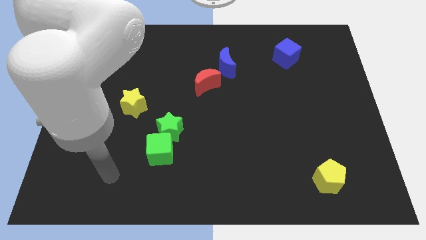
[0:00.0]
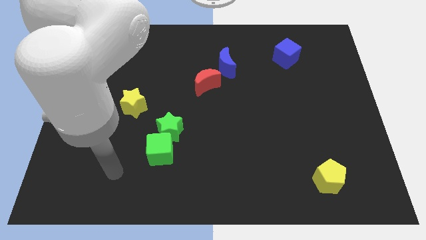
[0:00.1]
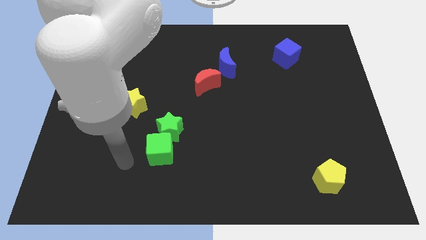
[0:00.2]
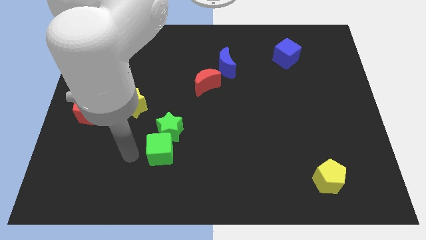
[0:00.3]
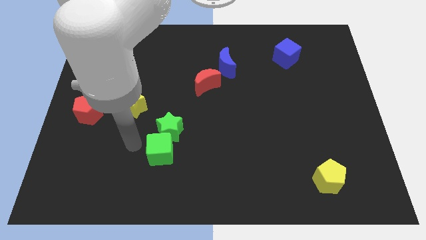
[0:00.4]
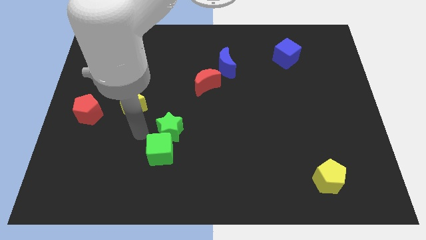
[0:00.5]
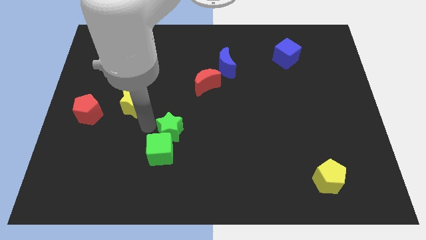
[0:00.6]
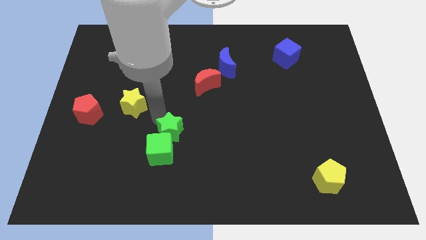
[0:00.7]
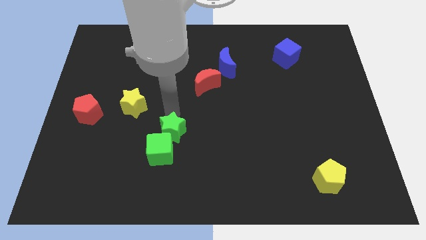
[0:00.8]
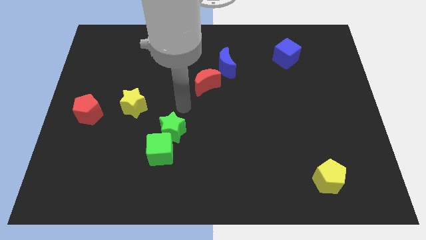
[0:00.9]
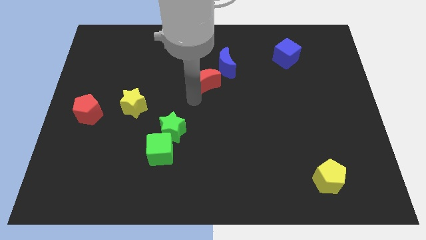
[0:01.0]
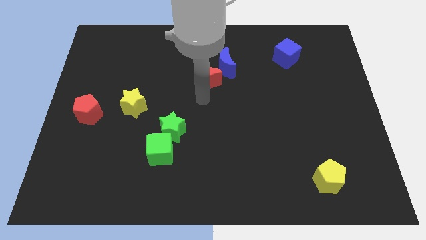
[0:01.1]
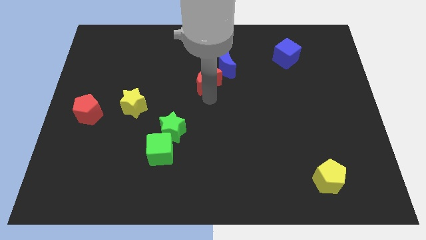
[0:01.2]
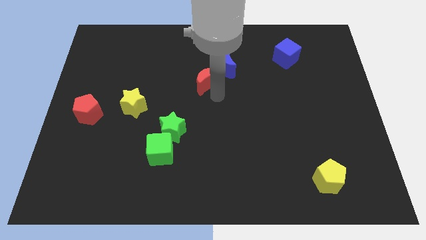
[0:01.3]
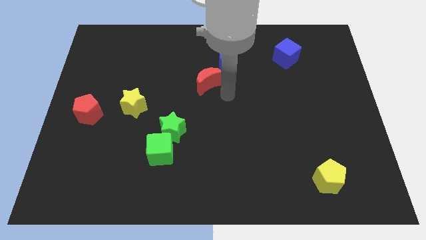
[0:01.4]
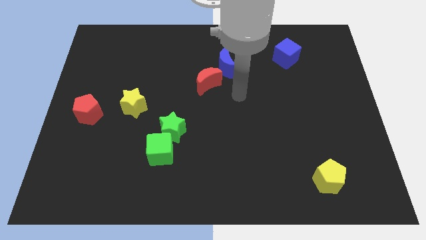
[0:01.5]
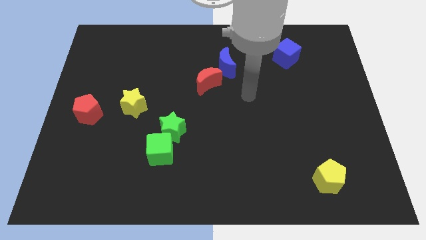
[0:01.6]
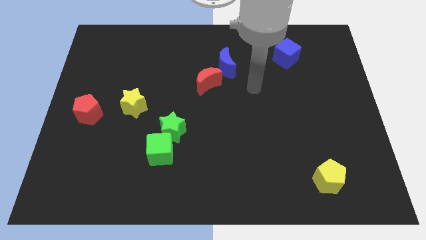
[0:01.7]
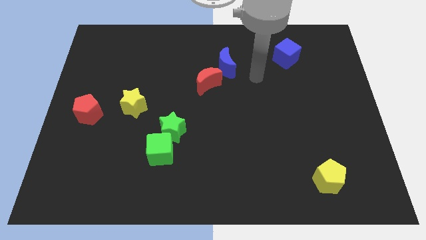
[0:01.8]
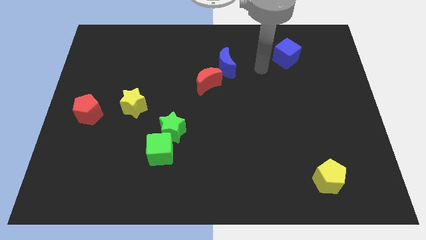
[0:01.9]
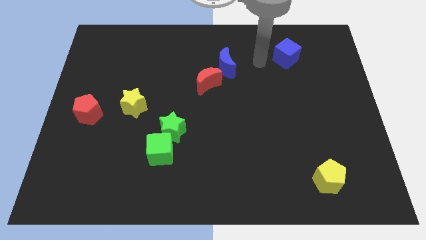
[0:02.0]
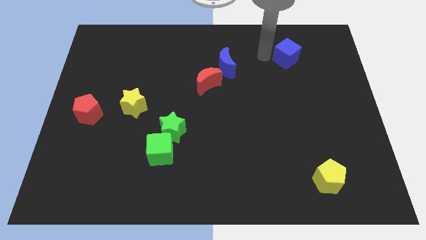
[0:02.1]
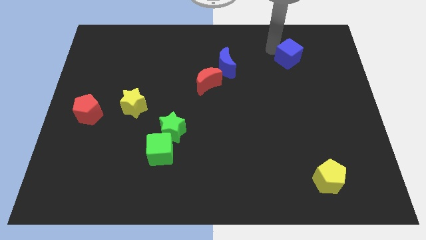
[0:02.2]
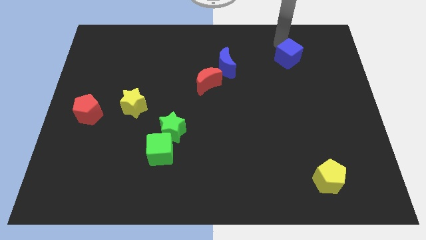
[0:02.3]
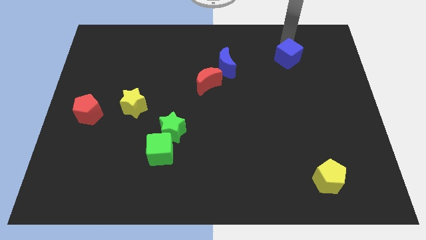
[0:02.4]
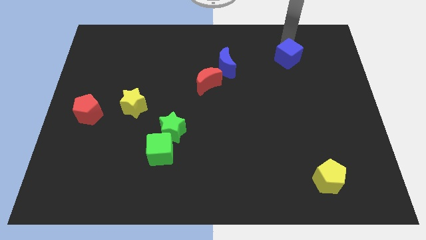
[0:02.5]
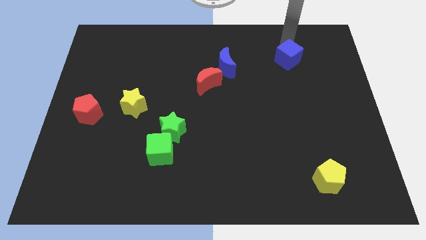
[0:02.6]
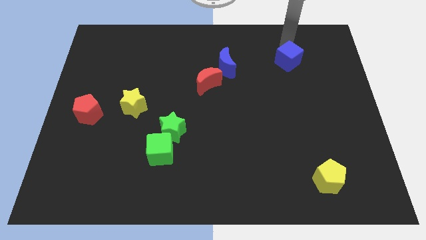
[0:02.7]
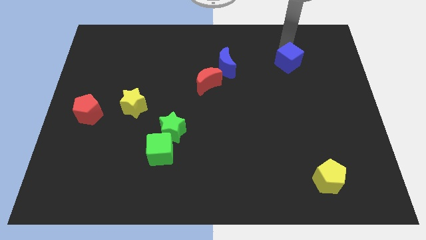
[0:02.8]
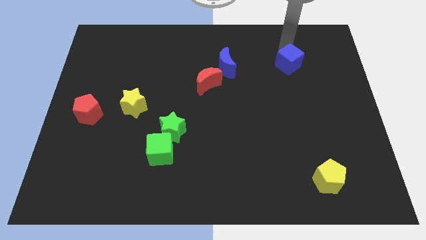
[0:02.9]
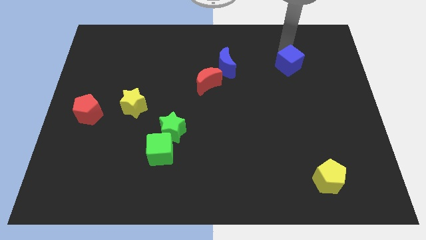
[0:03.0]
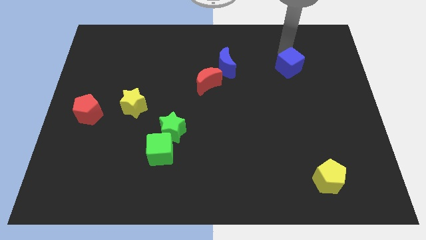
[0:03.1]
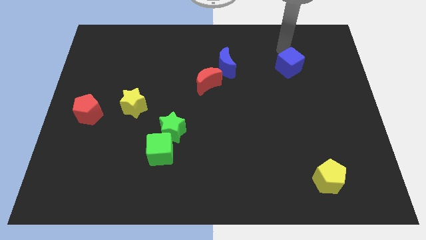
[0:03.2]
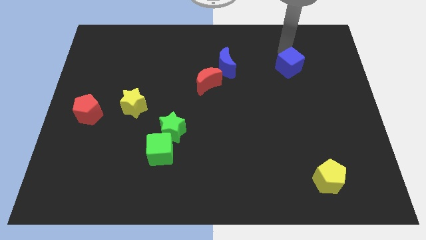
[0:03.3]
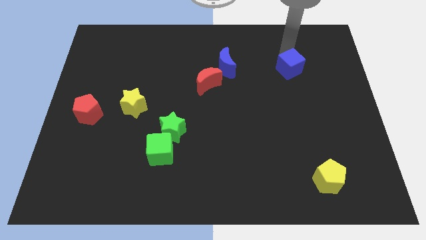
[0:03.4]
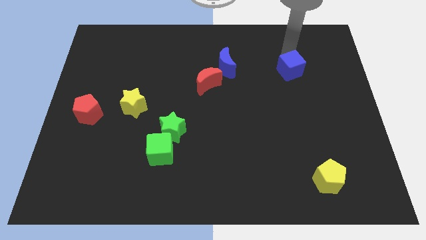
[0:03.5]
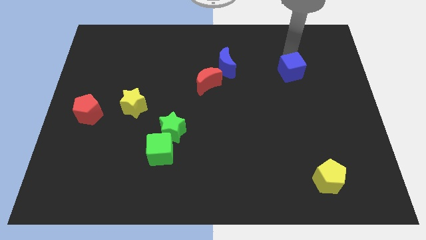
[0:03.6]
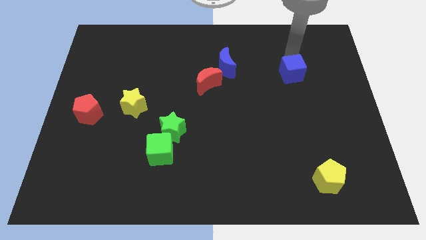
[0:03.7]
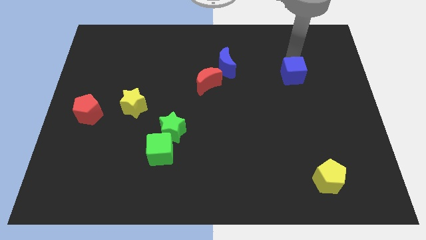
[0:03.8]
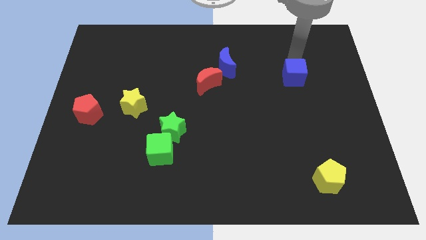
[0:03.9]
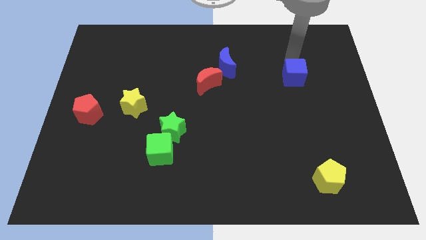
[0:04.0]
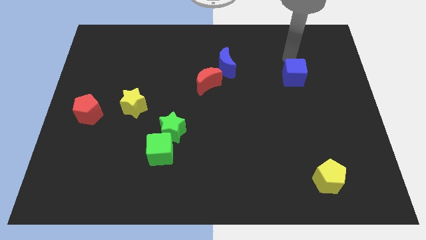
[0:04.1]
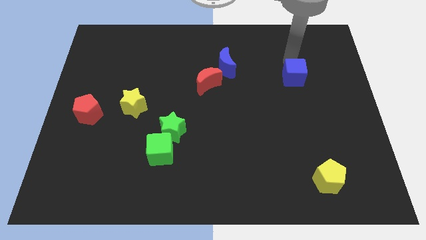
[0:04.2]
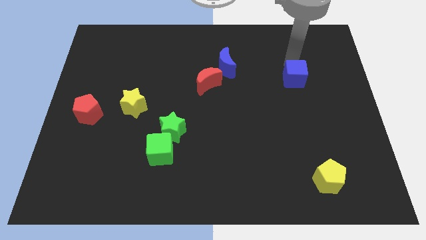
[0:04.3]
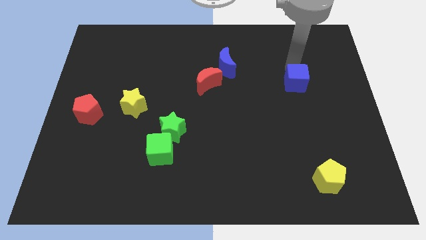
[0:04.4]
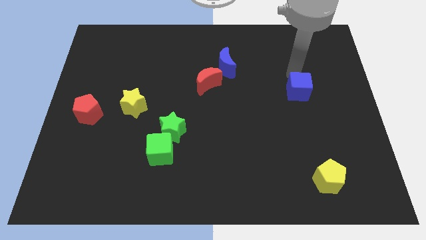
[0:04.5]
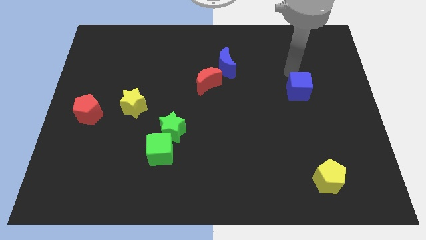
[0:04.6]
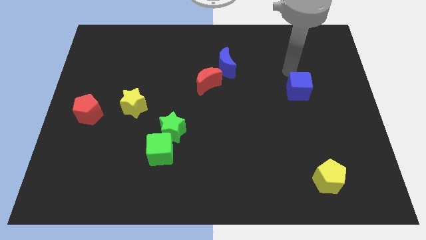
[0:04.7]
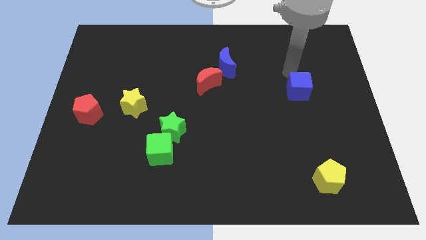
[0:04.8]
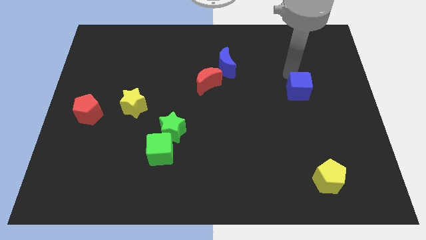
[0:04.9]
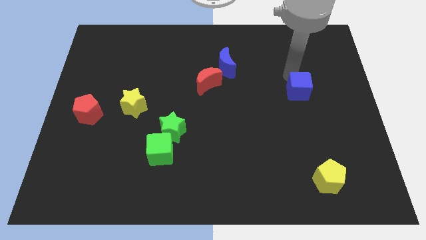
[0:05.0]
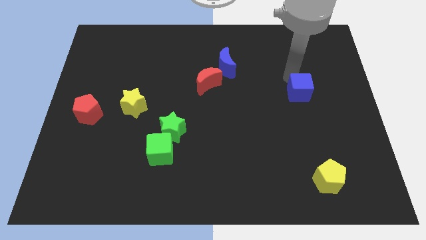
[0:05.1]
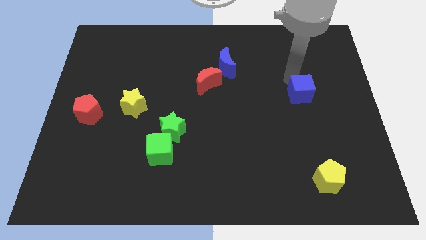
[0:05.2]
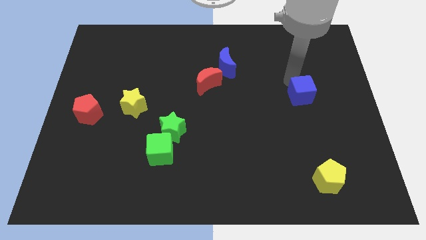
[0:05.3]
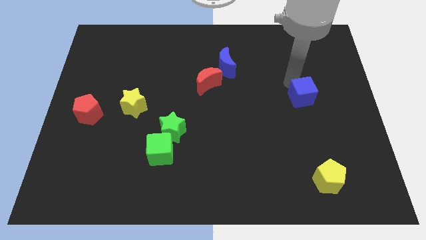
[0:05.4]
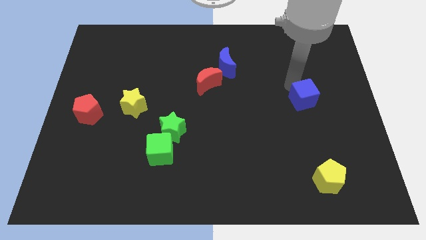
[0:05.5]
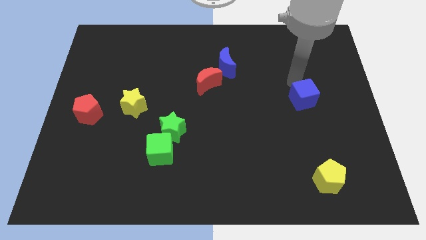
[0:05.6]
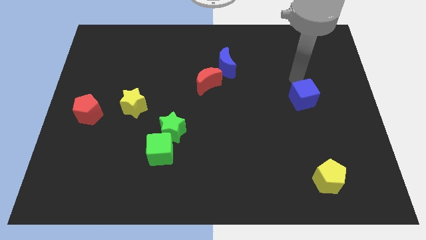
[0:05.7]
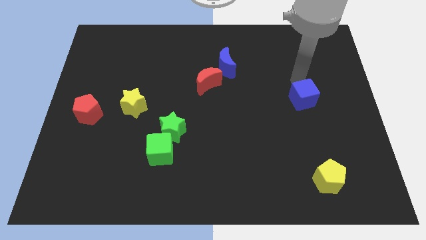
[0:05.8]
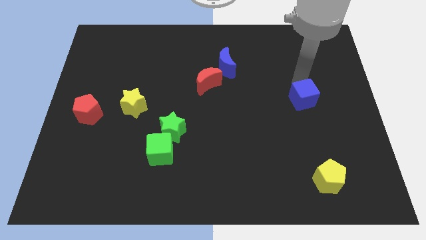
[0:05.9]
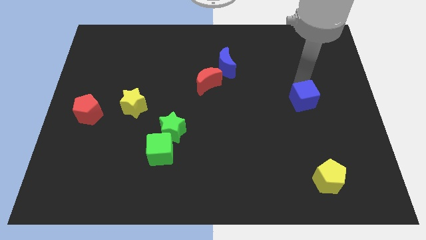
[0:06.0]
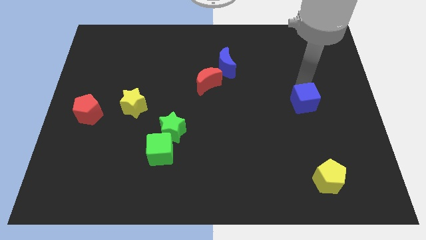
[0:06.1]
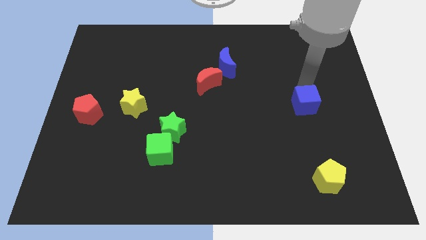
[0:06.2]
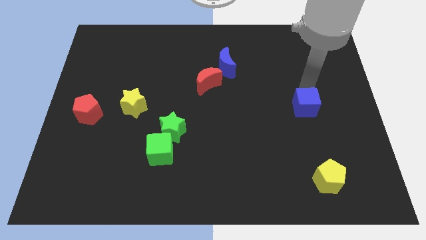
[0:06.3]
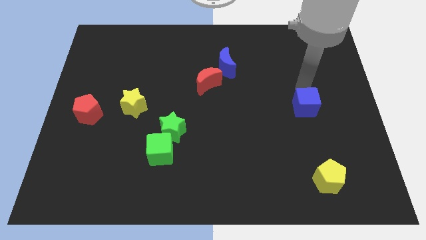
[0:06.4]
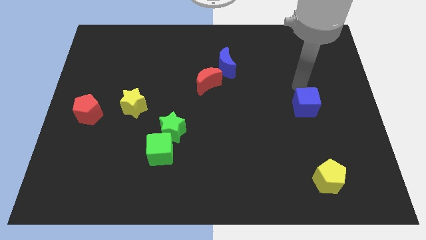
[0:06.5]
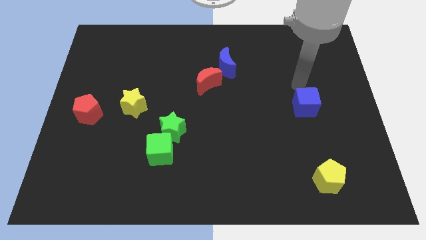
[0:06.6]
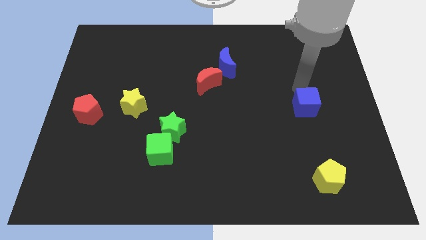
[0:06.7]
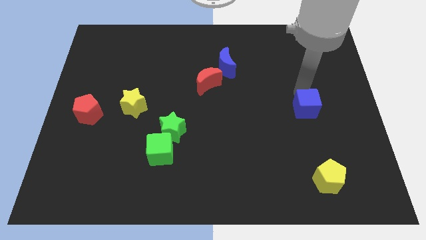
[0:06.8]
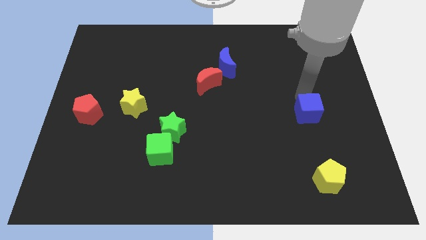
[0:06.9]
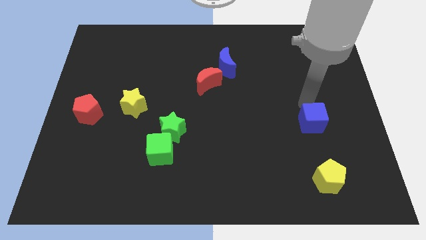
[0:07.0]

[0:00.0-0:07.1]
slide the blue cube downwards

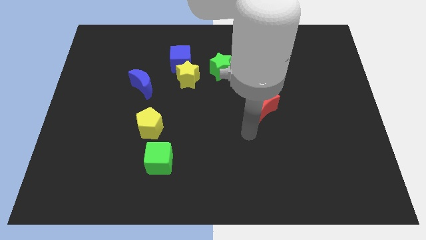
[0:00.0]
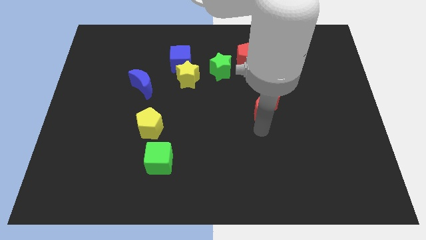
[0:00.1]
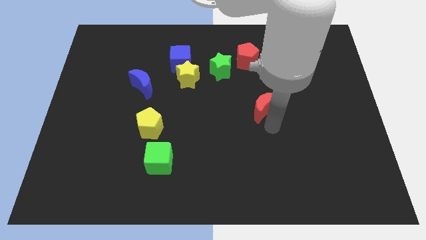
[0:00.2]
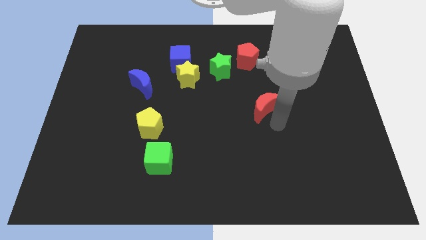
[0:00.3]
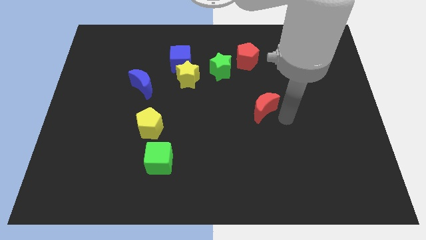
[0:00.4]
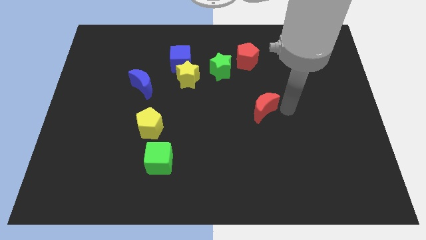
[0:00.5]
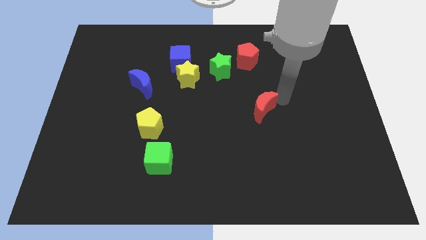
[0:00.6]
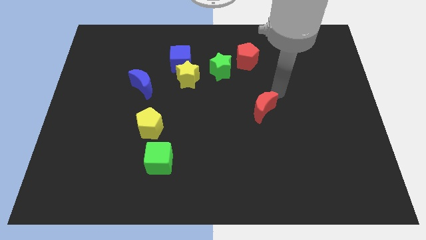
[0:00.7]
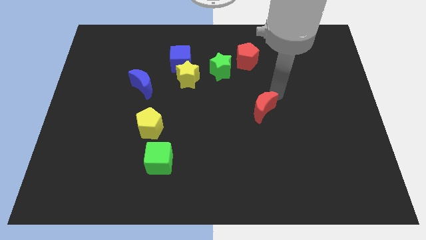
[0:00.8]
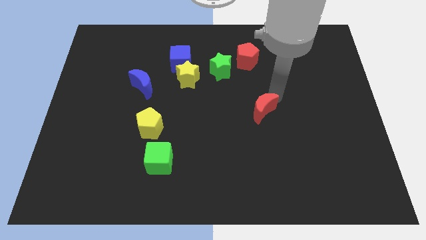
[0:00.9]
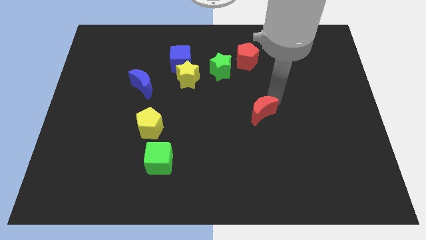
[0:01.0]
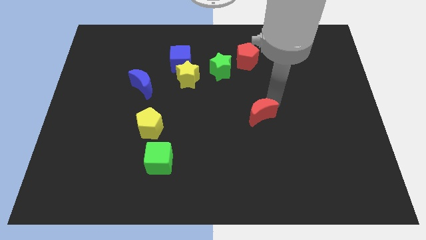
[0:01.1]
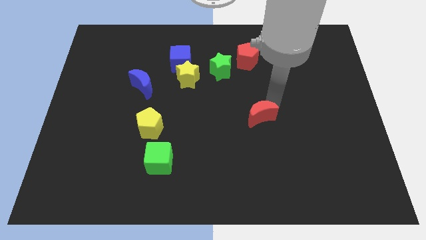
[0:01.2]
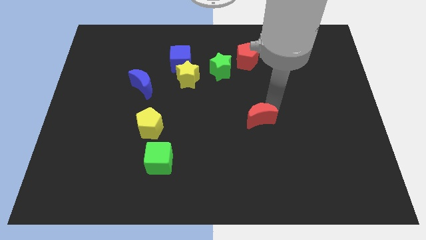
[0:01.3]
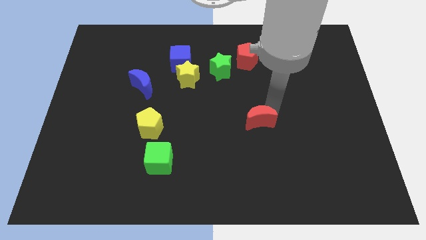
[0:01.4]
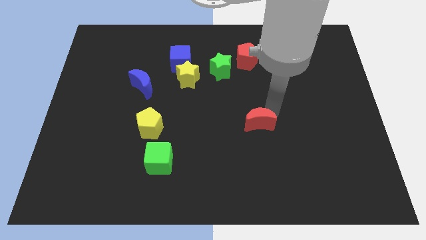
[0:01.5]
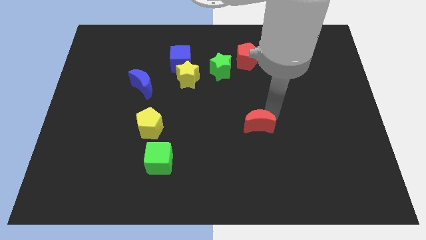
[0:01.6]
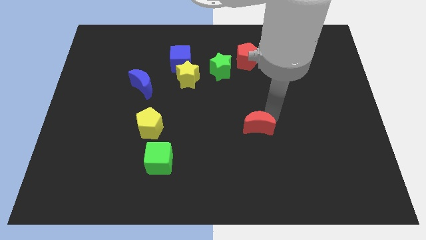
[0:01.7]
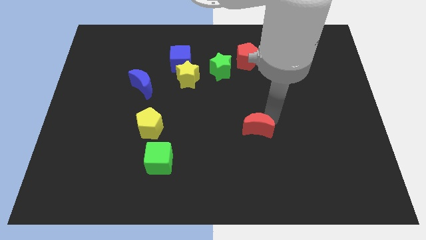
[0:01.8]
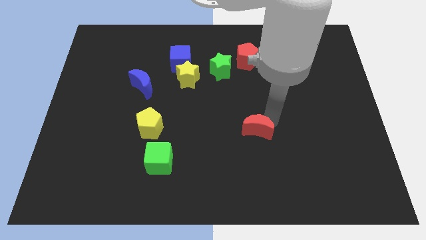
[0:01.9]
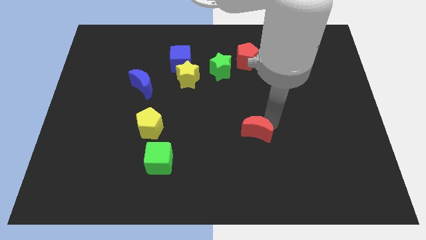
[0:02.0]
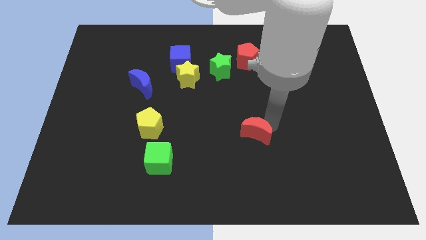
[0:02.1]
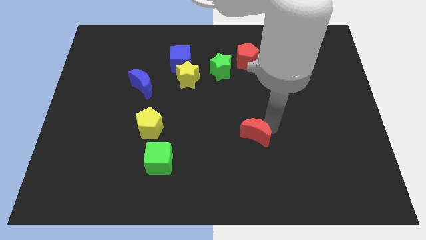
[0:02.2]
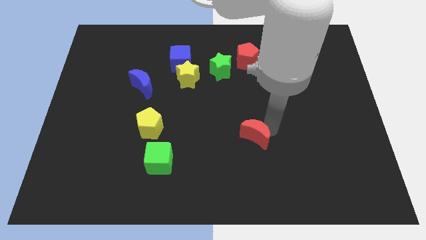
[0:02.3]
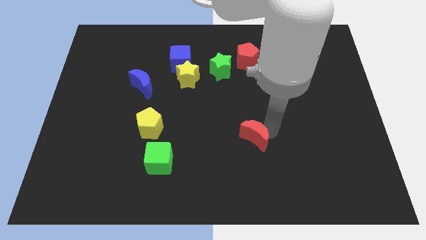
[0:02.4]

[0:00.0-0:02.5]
move the red moon somewhat down and to the left
